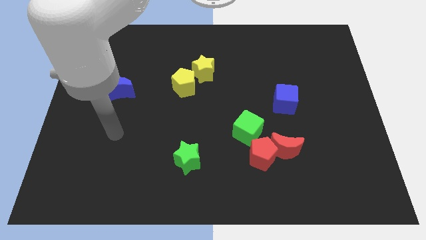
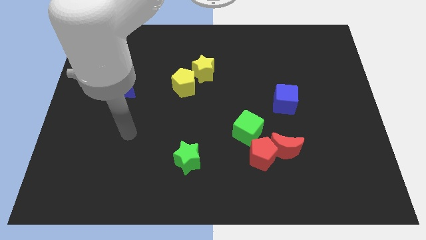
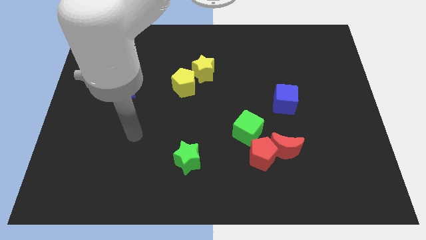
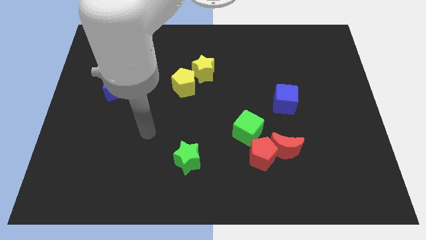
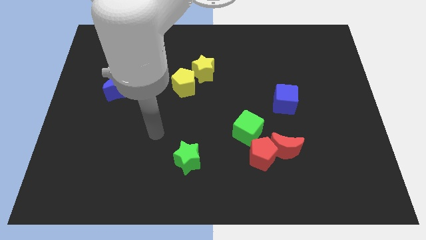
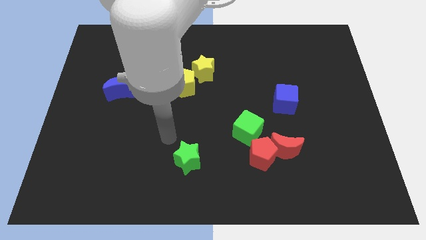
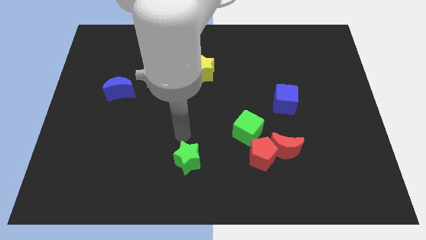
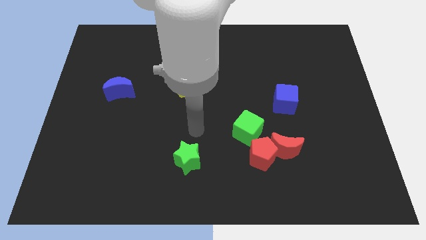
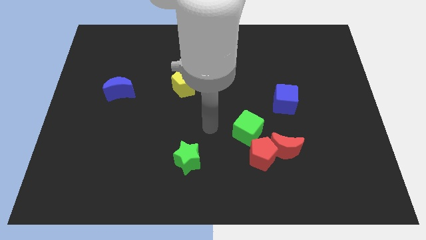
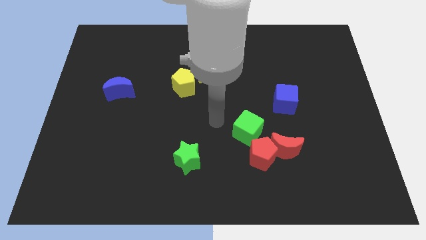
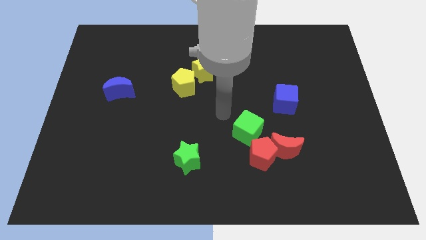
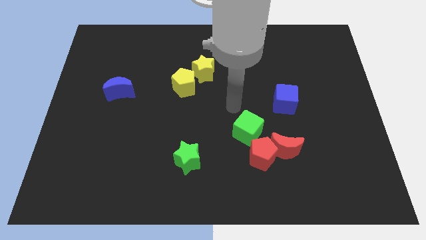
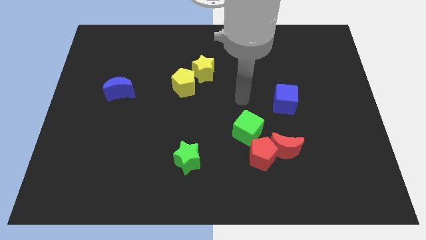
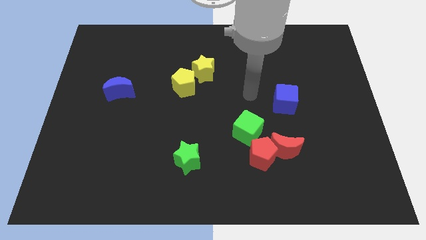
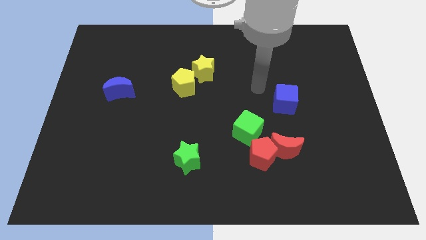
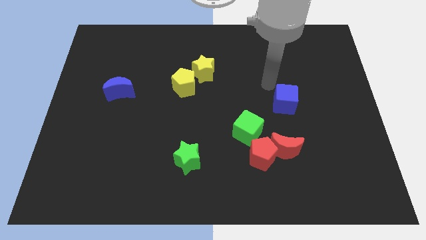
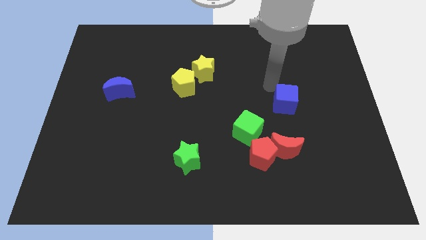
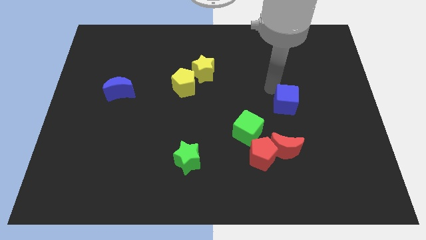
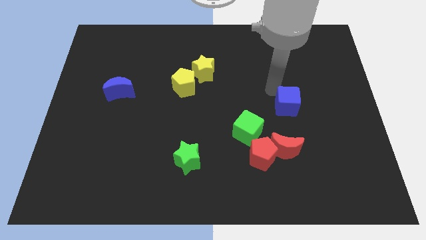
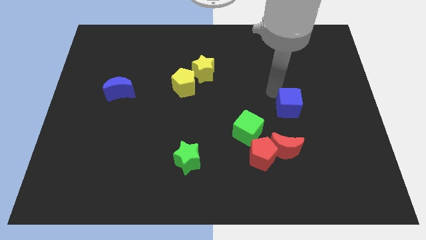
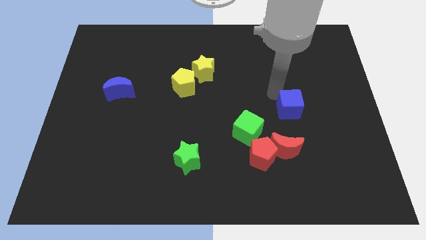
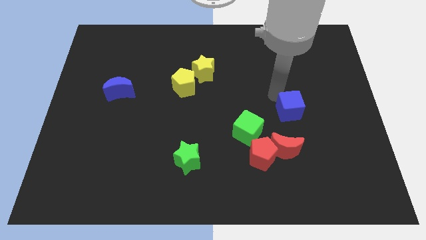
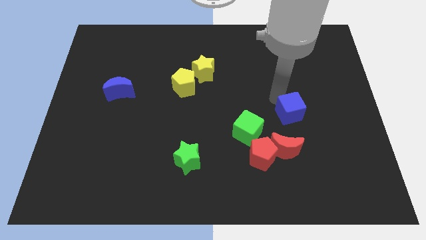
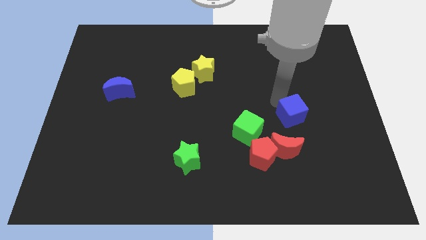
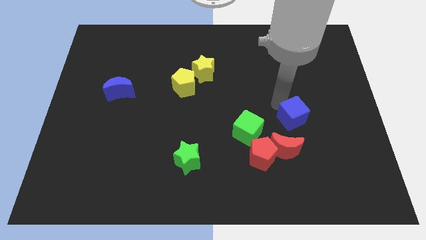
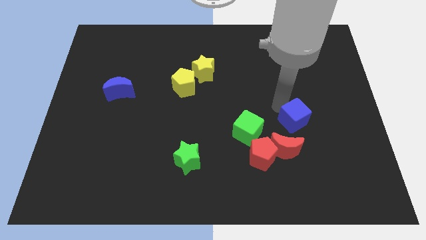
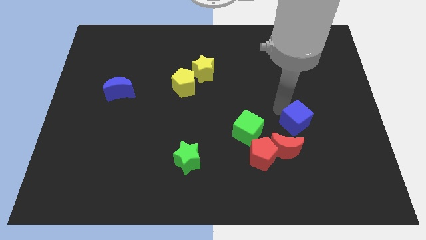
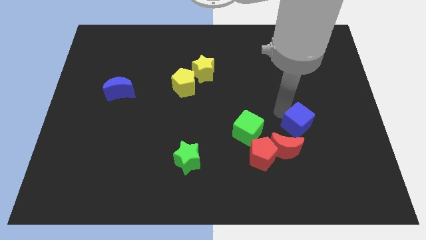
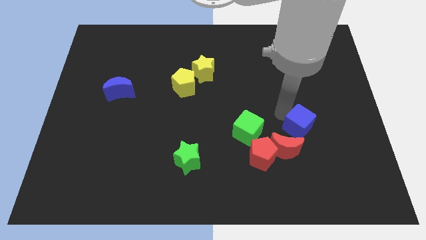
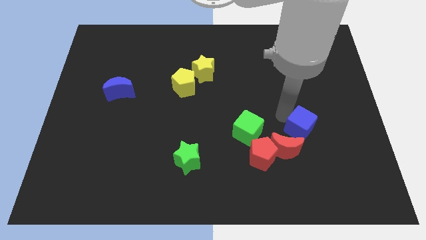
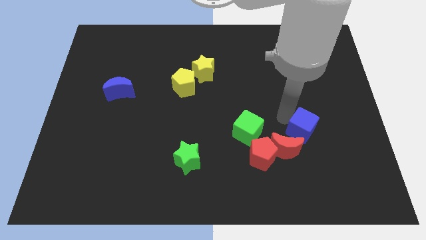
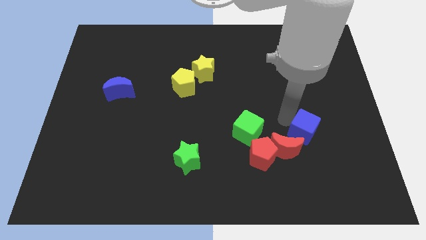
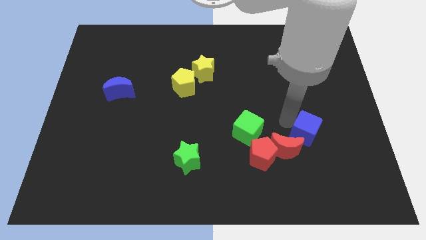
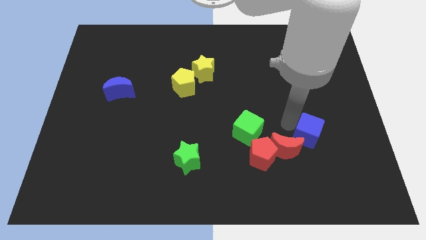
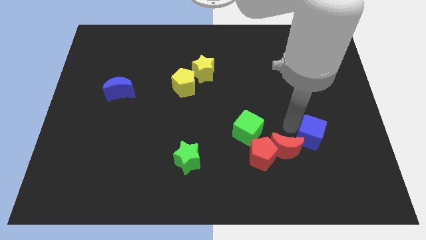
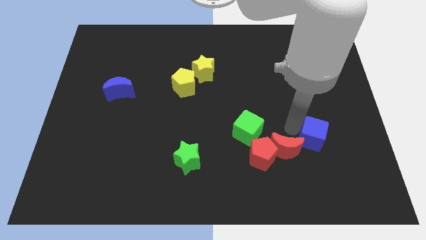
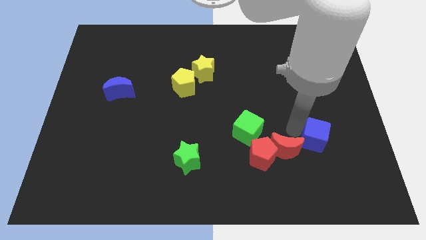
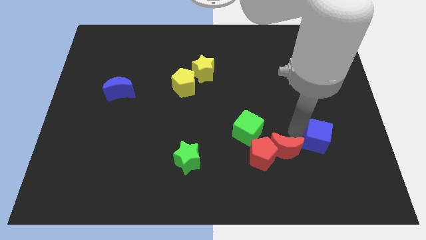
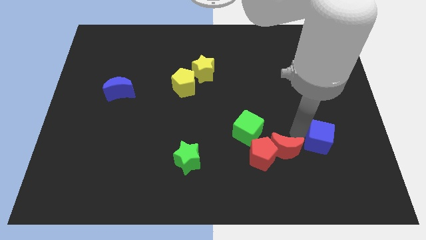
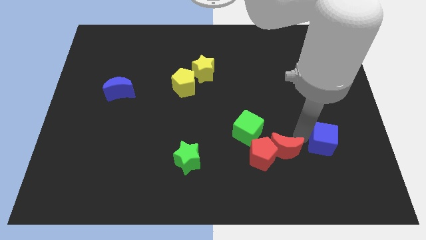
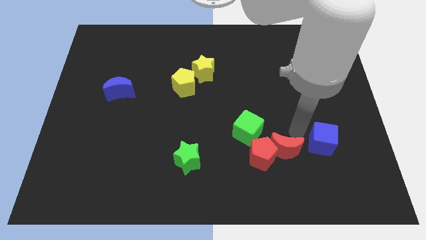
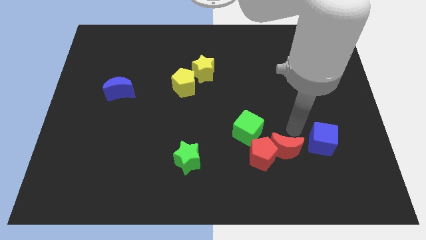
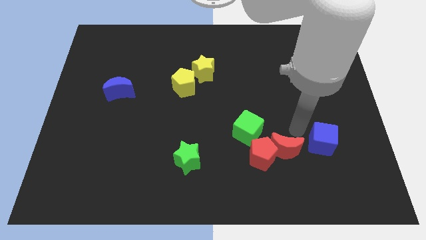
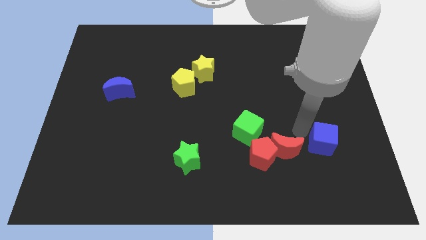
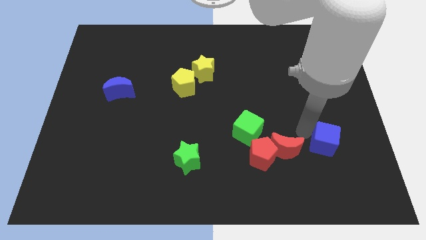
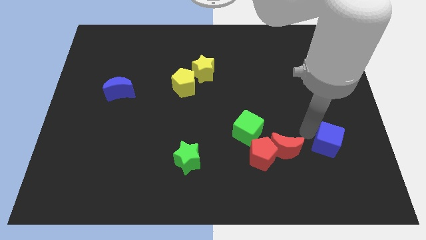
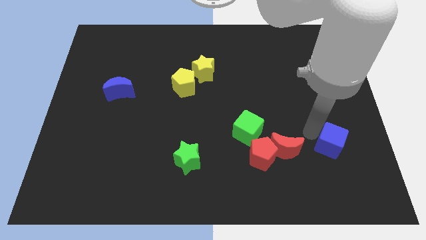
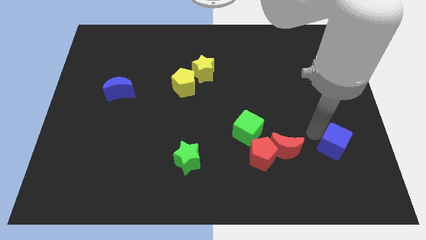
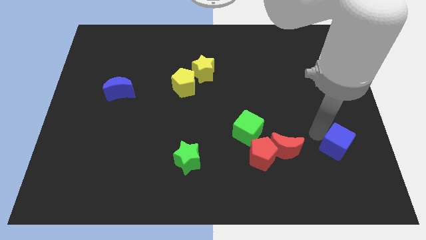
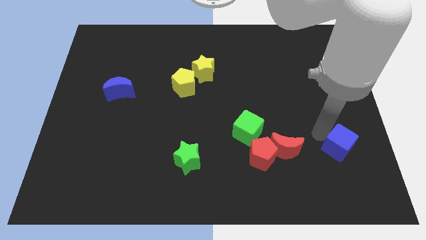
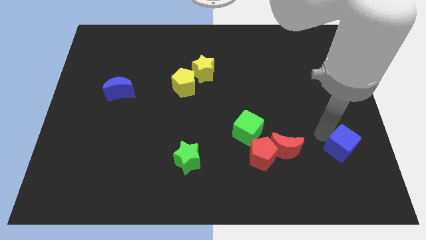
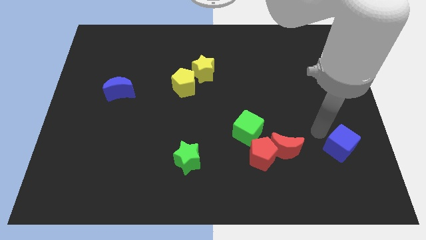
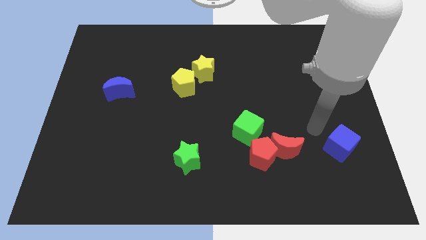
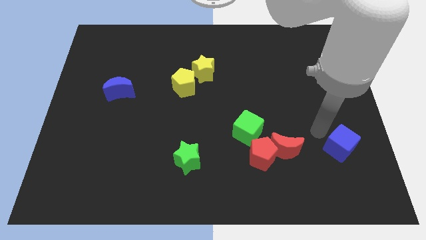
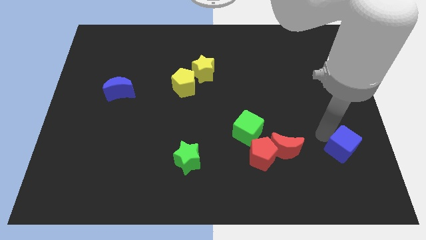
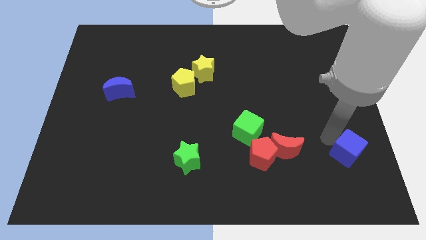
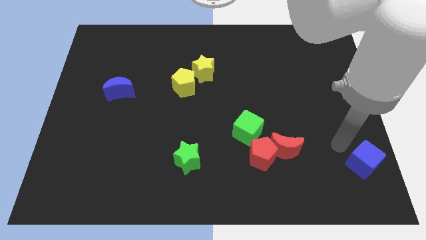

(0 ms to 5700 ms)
push the blue cube to the bottom right

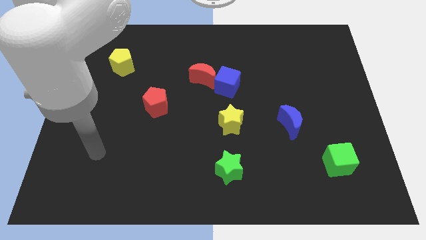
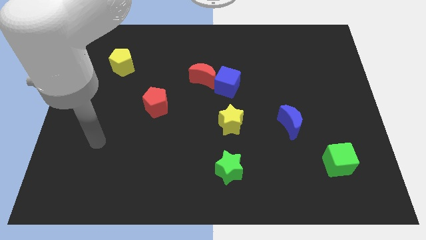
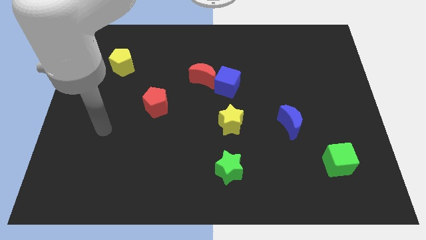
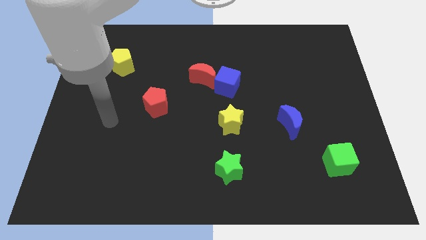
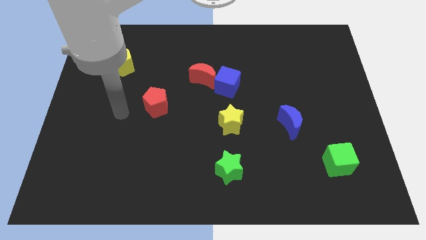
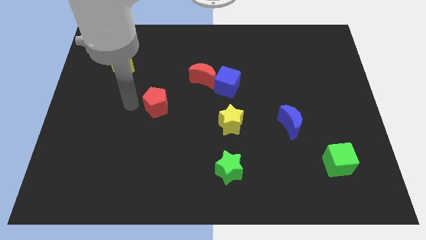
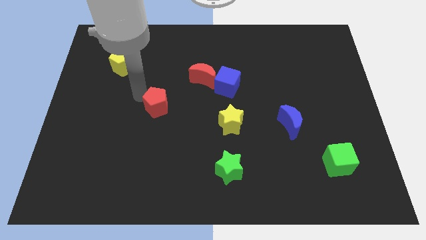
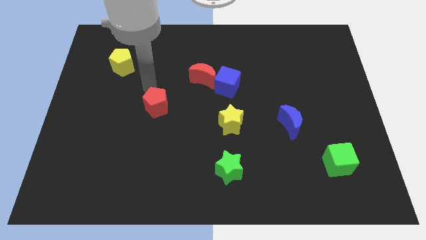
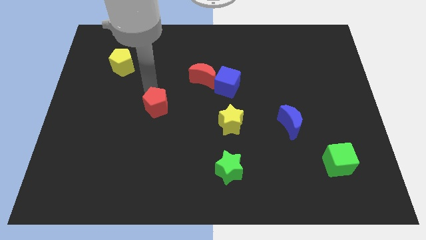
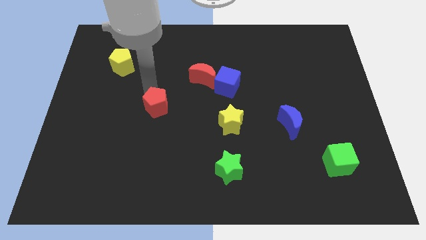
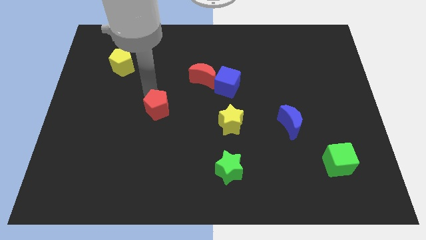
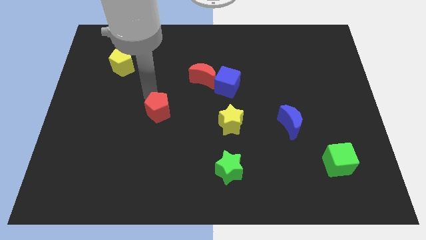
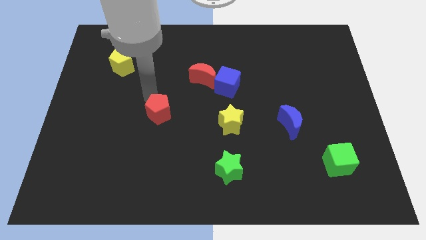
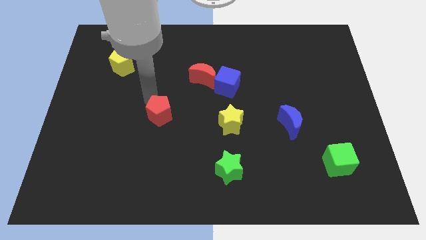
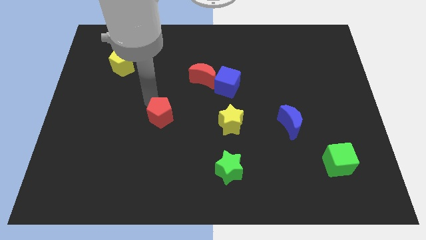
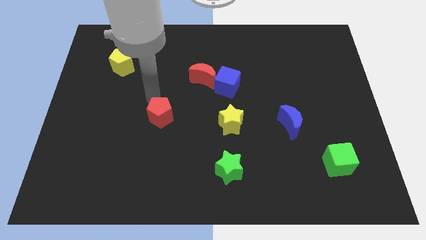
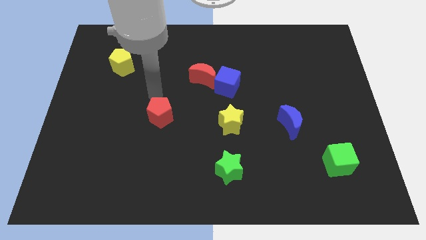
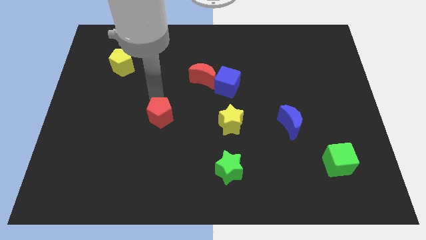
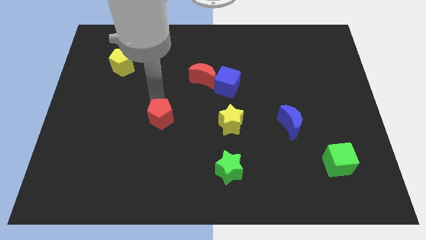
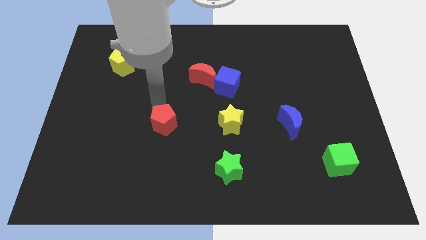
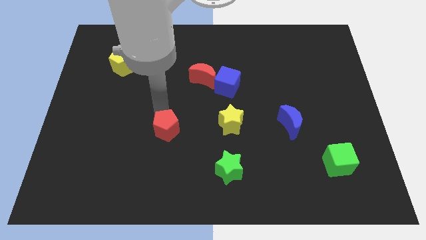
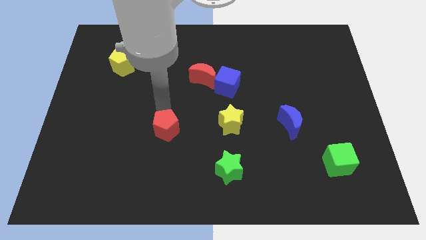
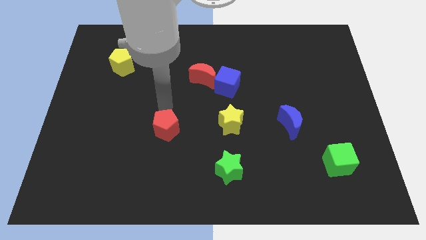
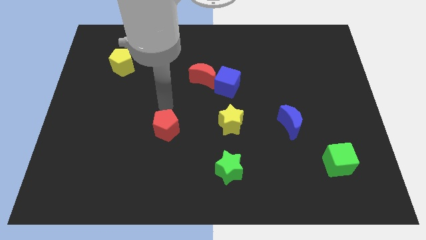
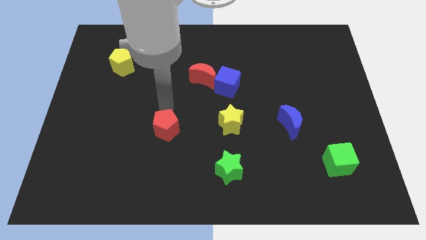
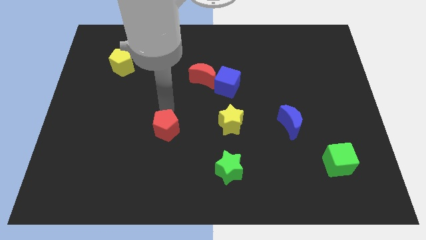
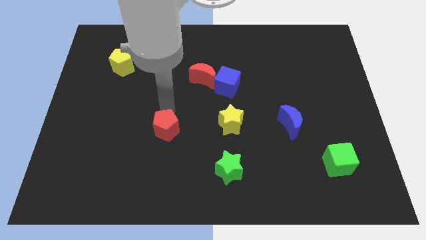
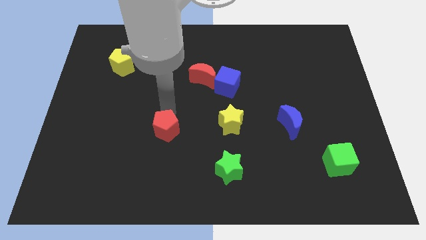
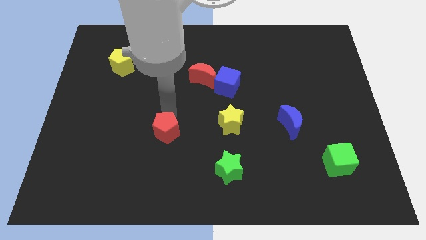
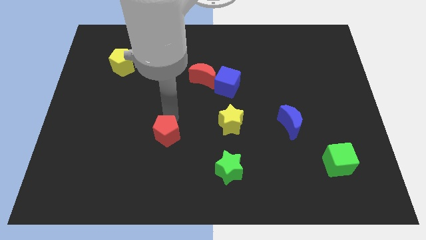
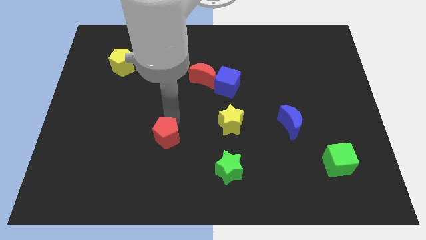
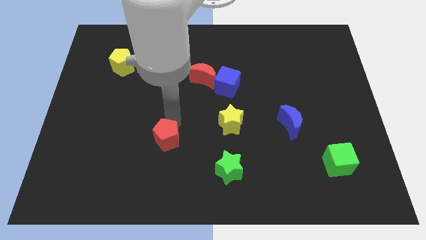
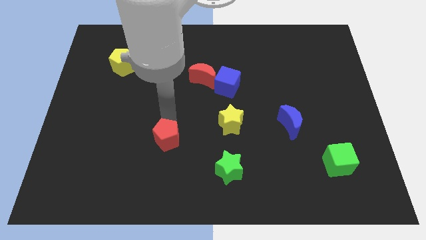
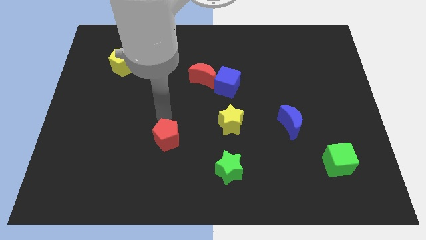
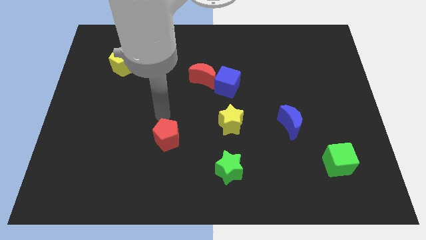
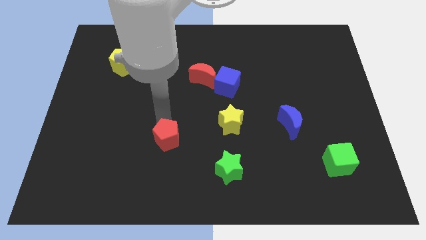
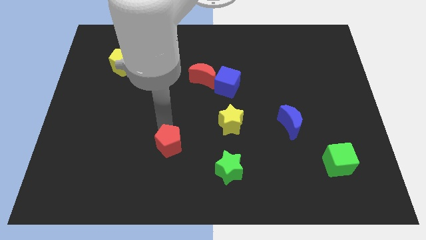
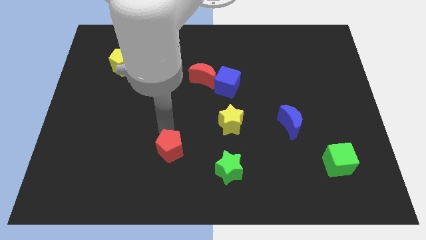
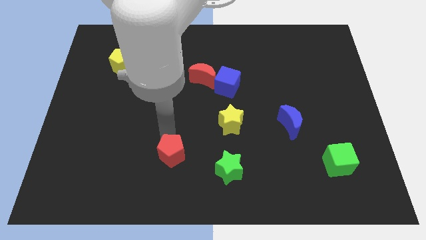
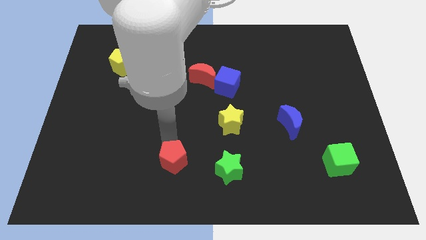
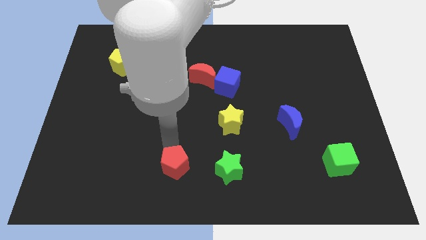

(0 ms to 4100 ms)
slide the red pentagon to the bottom side
